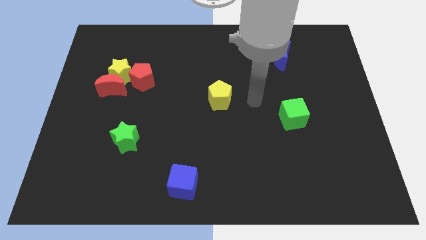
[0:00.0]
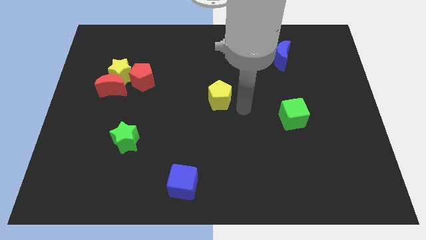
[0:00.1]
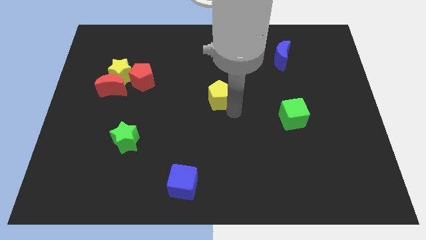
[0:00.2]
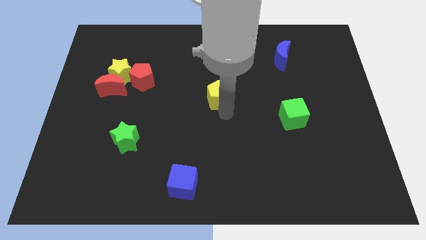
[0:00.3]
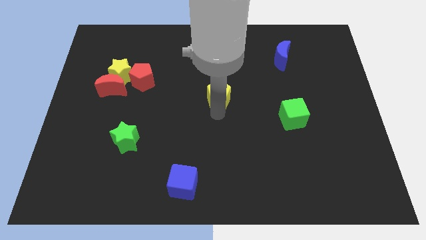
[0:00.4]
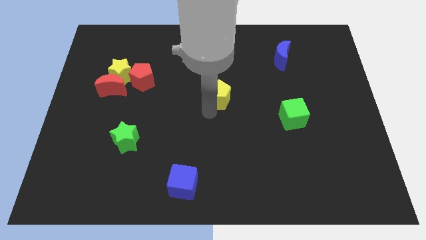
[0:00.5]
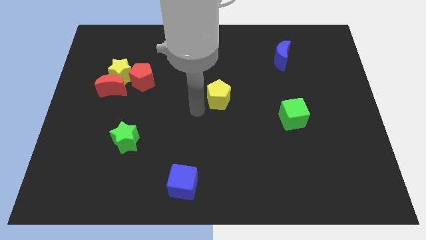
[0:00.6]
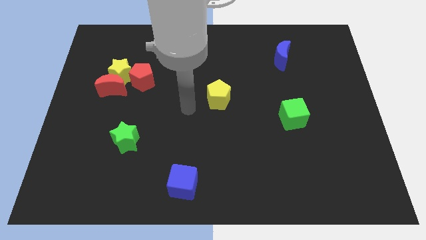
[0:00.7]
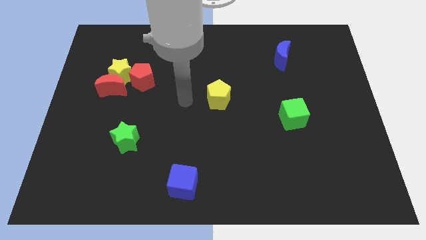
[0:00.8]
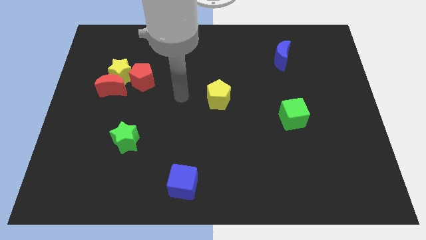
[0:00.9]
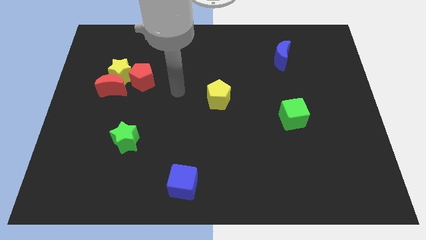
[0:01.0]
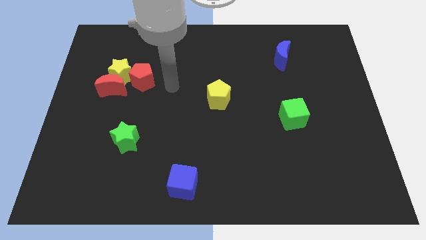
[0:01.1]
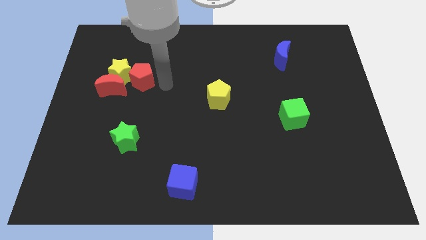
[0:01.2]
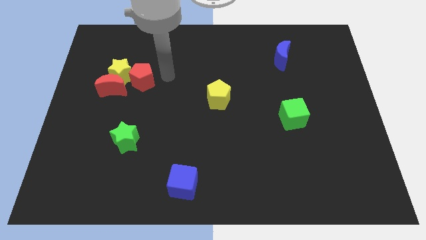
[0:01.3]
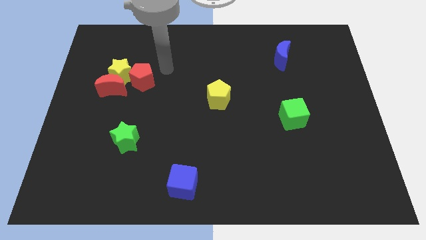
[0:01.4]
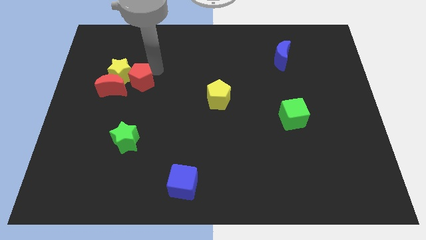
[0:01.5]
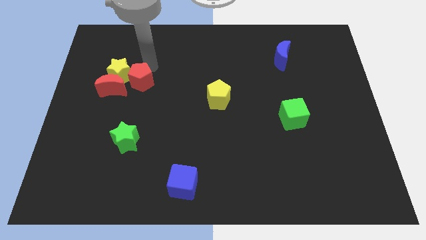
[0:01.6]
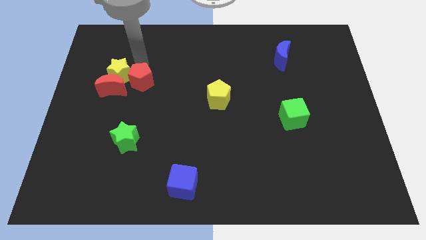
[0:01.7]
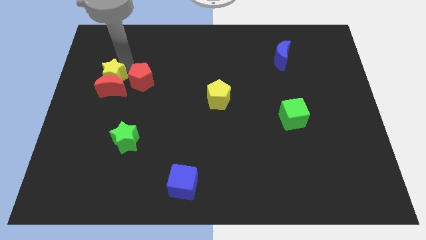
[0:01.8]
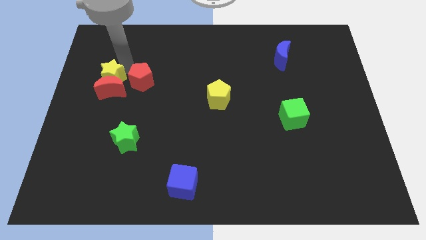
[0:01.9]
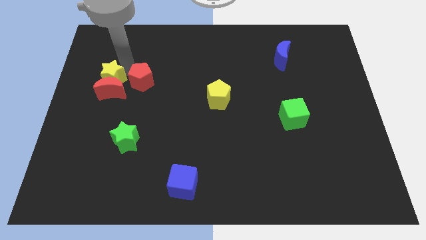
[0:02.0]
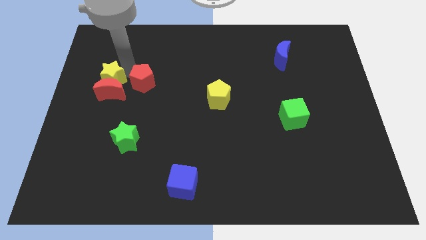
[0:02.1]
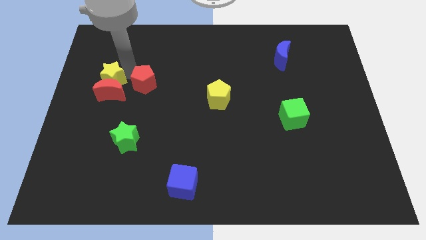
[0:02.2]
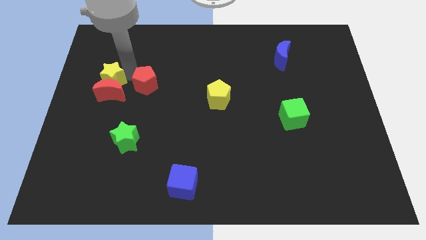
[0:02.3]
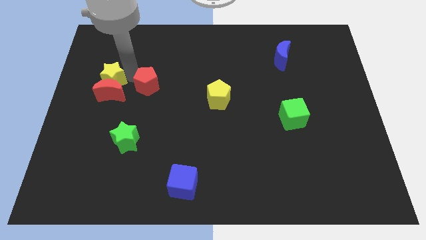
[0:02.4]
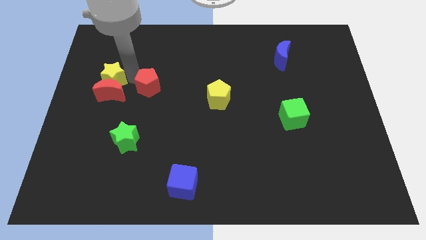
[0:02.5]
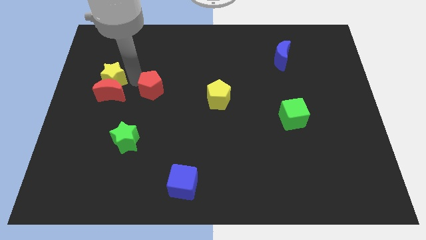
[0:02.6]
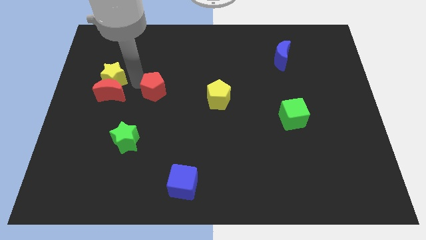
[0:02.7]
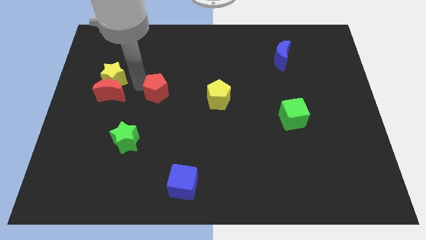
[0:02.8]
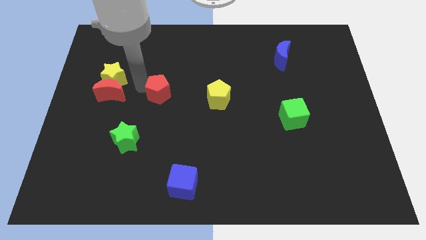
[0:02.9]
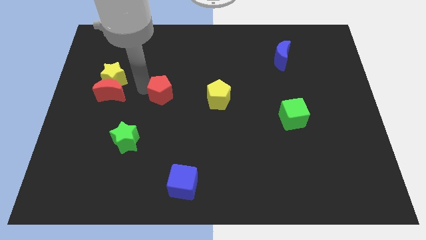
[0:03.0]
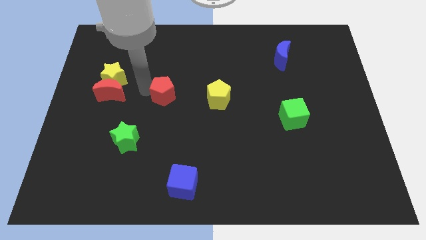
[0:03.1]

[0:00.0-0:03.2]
slide the red pentagon a bit down and right

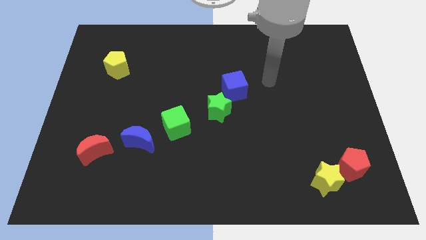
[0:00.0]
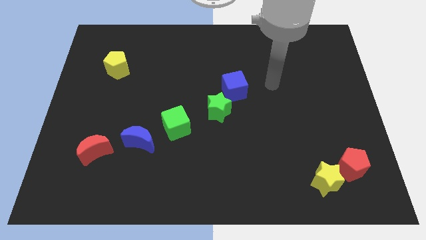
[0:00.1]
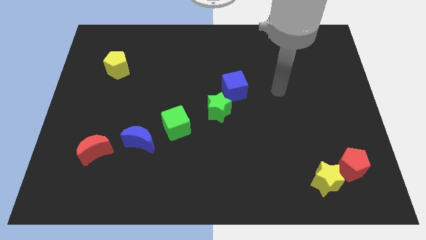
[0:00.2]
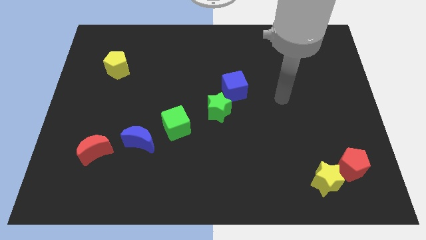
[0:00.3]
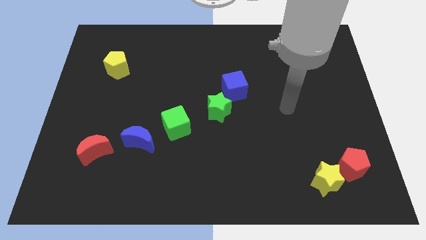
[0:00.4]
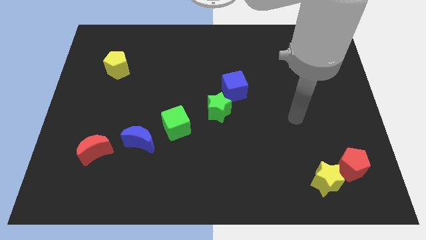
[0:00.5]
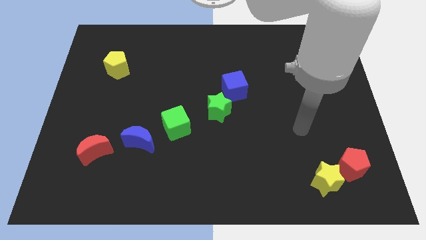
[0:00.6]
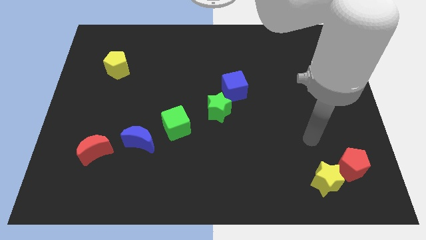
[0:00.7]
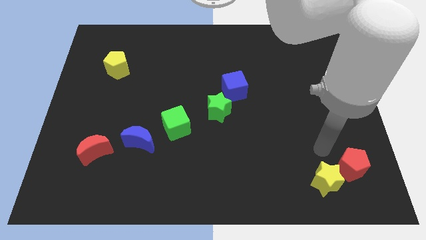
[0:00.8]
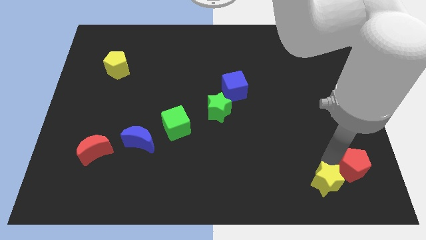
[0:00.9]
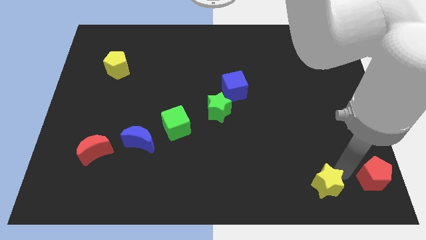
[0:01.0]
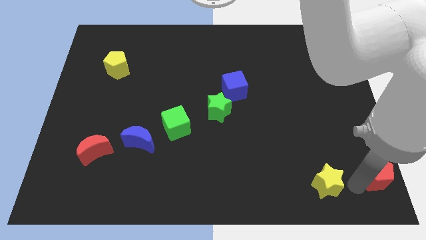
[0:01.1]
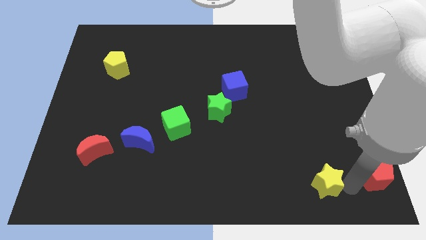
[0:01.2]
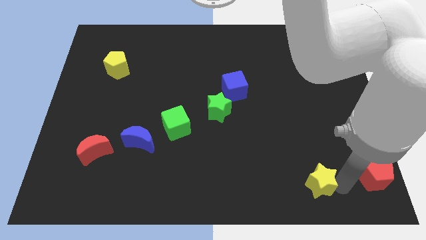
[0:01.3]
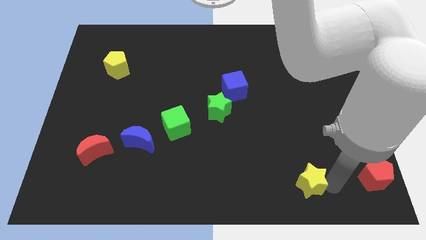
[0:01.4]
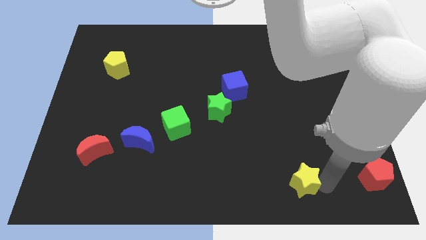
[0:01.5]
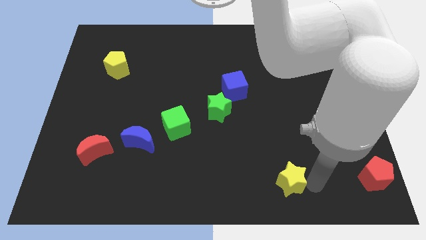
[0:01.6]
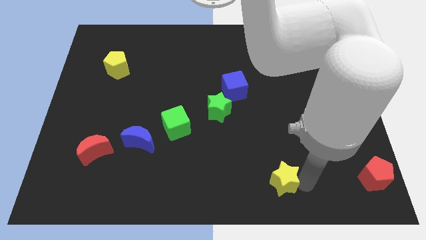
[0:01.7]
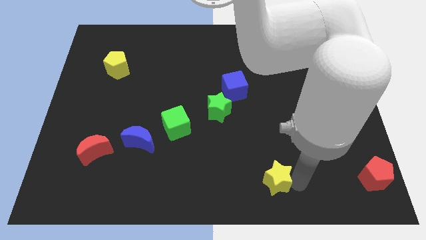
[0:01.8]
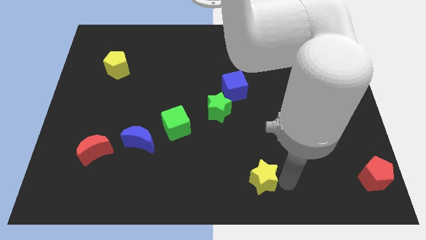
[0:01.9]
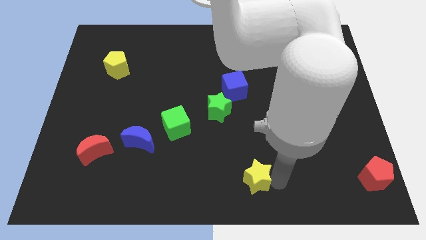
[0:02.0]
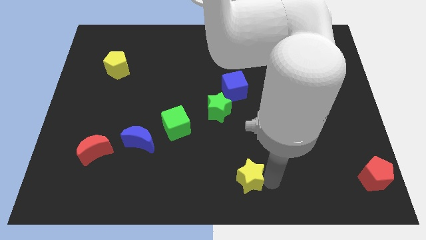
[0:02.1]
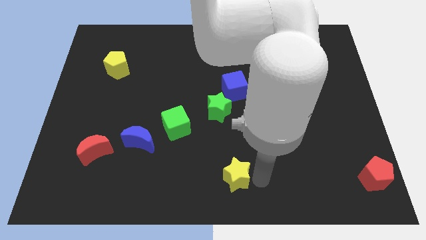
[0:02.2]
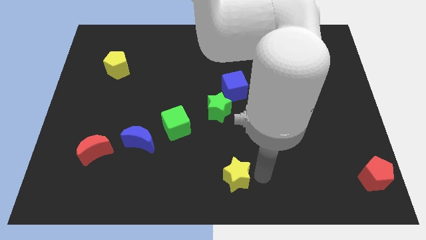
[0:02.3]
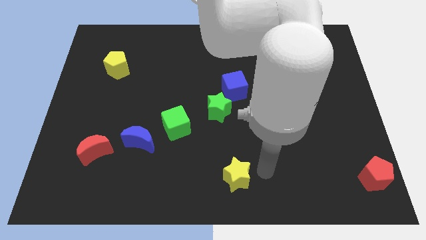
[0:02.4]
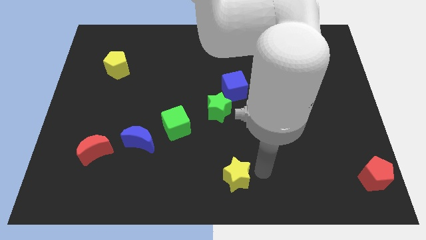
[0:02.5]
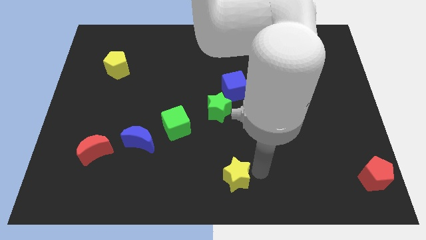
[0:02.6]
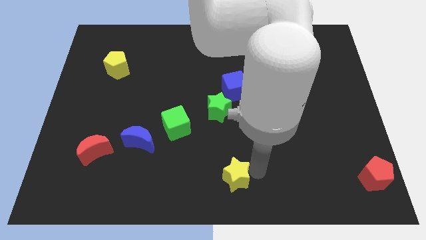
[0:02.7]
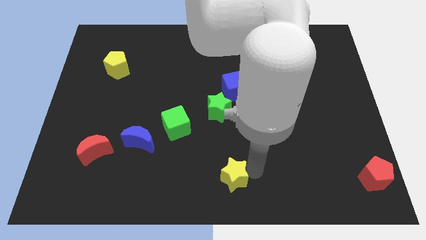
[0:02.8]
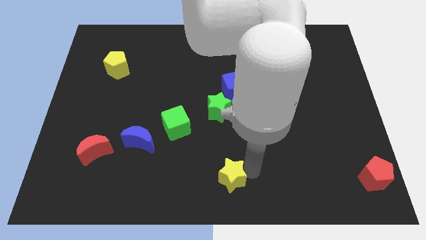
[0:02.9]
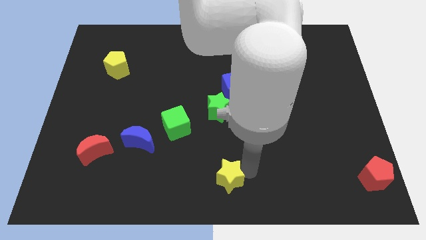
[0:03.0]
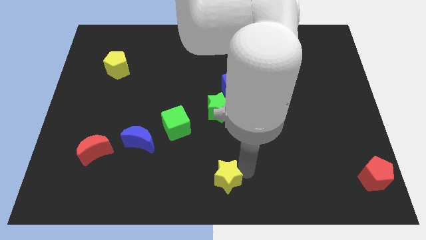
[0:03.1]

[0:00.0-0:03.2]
move the yellow star to the left

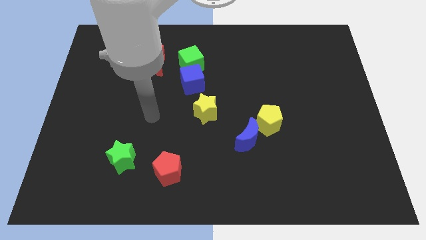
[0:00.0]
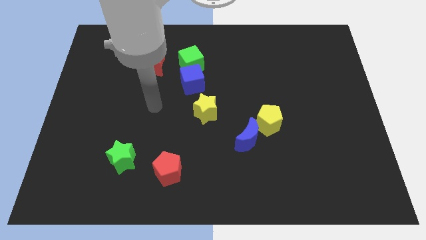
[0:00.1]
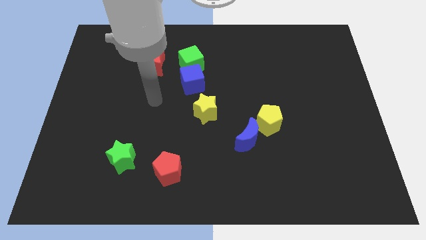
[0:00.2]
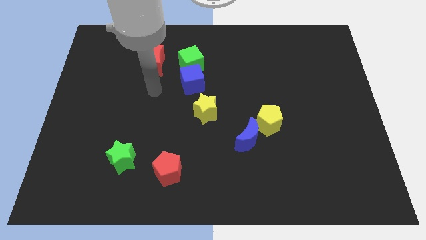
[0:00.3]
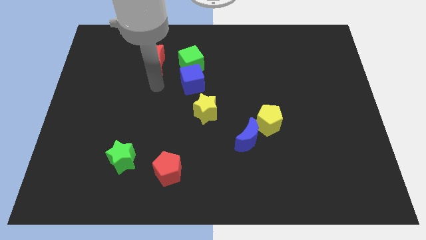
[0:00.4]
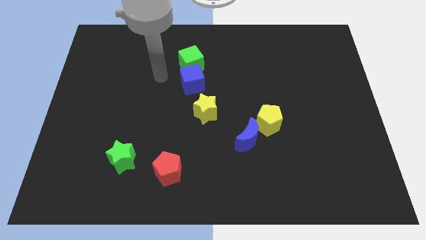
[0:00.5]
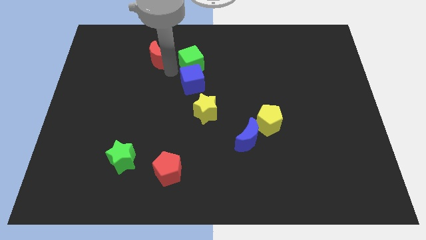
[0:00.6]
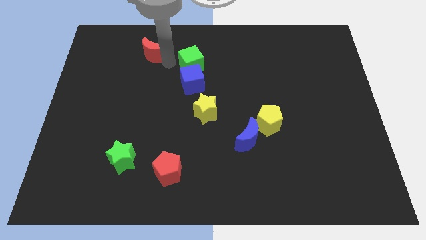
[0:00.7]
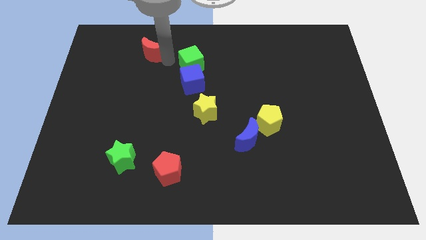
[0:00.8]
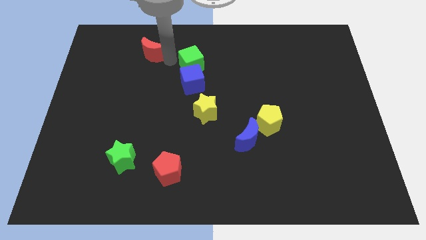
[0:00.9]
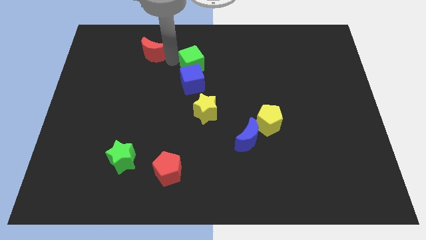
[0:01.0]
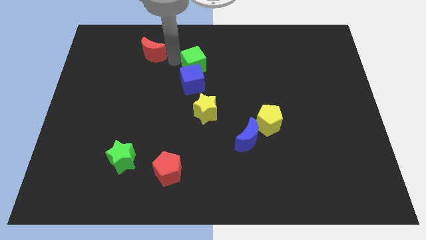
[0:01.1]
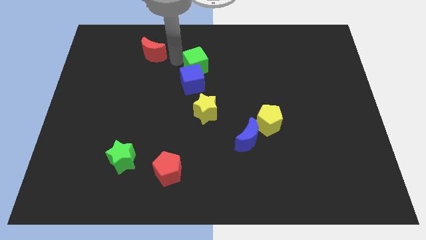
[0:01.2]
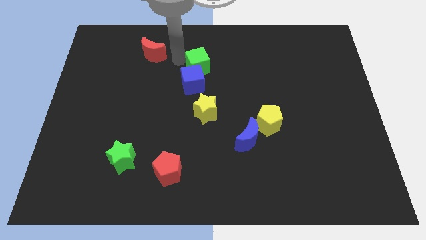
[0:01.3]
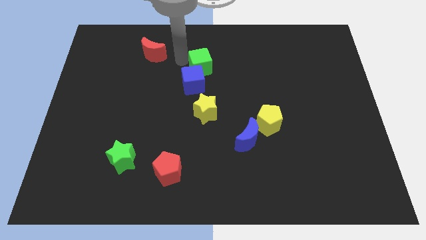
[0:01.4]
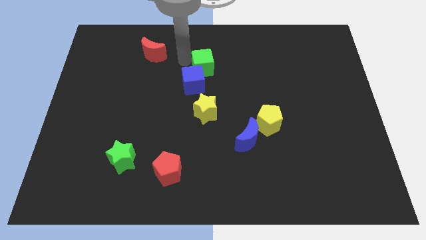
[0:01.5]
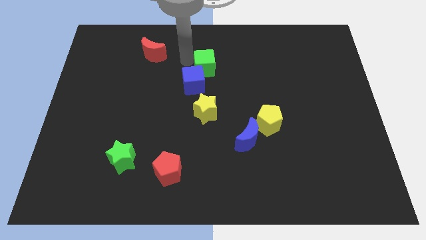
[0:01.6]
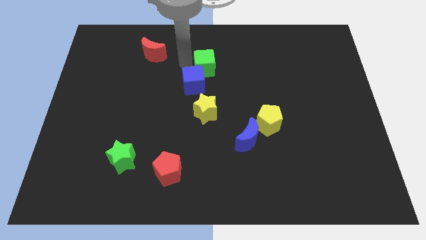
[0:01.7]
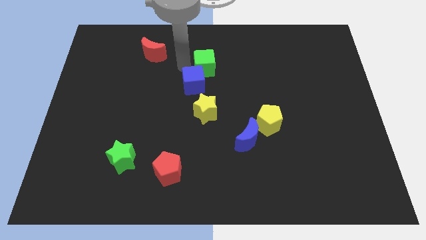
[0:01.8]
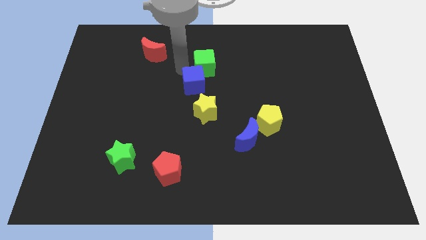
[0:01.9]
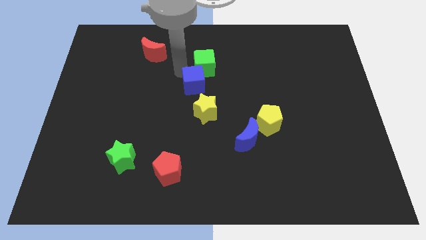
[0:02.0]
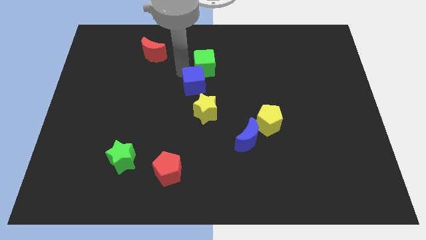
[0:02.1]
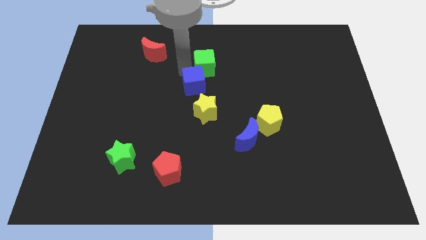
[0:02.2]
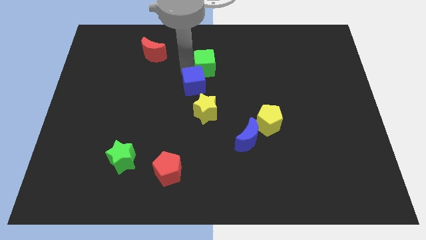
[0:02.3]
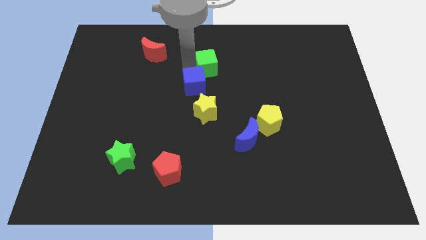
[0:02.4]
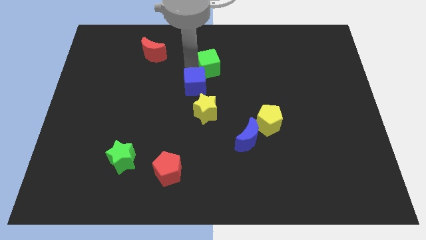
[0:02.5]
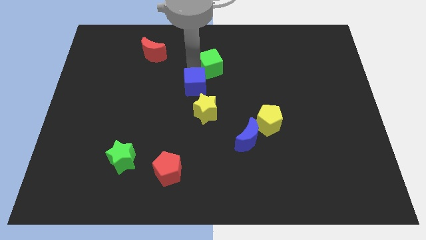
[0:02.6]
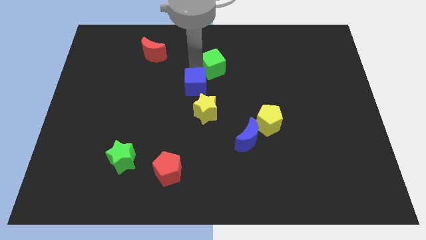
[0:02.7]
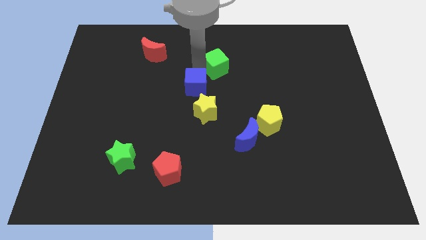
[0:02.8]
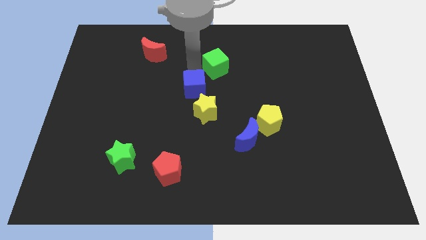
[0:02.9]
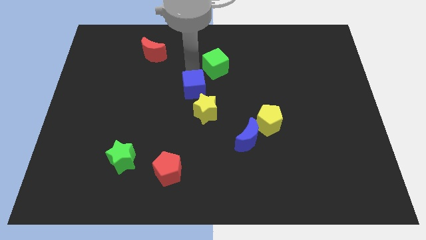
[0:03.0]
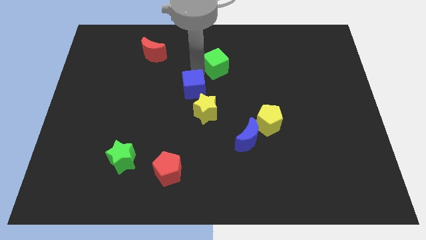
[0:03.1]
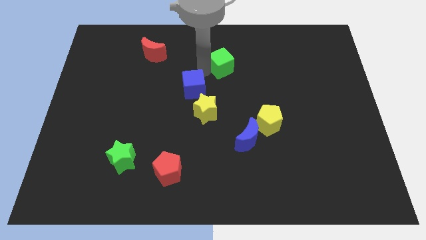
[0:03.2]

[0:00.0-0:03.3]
slightly slide the green cube right
